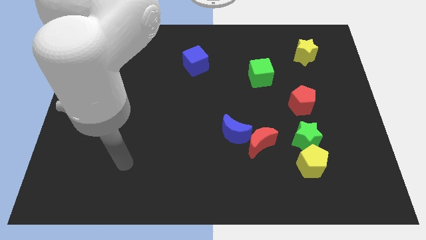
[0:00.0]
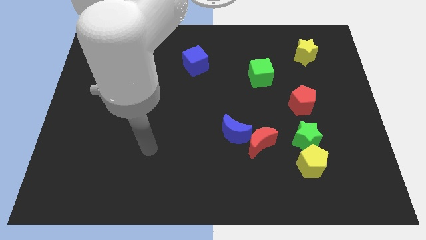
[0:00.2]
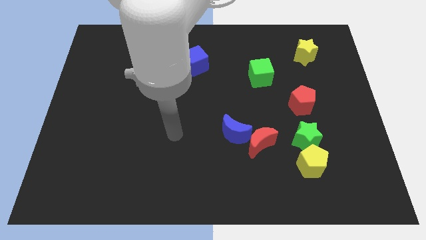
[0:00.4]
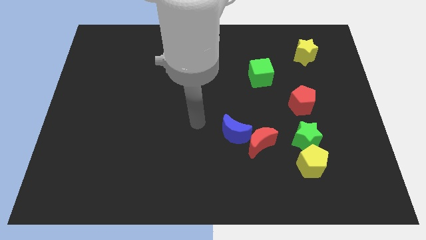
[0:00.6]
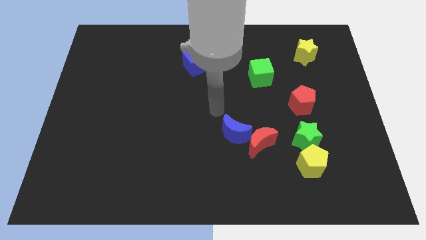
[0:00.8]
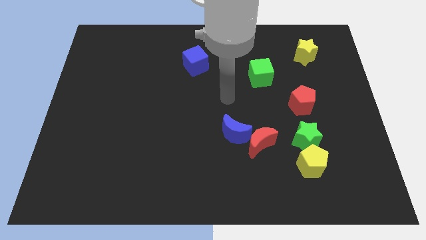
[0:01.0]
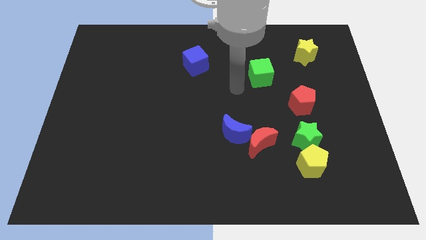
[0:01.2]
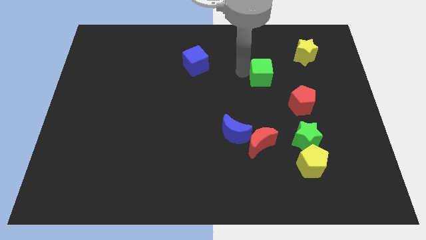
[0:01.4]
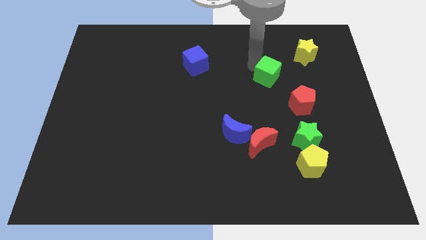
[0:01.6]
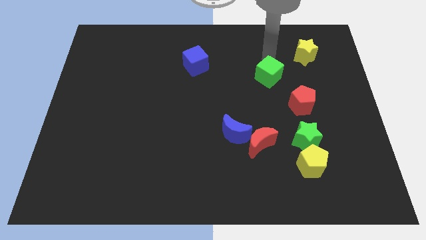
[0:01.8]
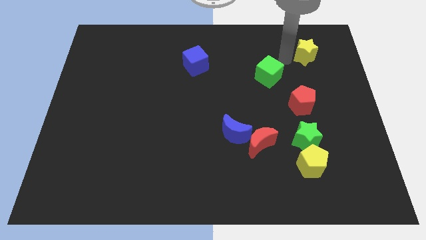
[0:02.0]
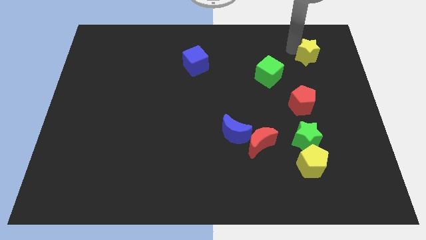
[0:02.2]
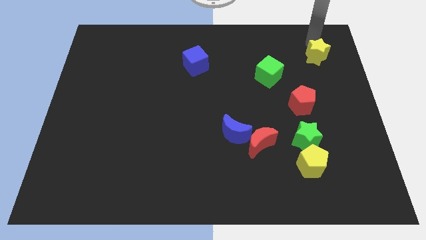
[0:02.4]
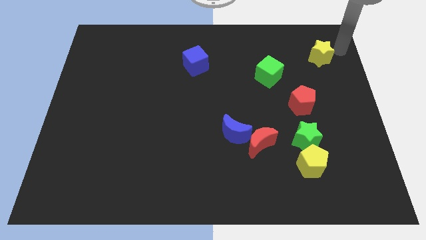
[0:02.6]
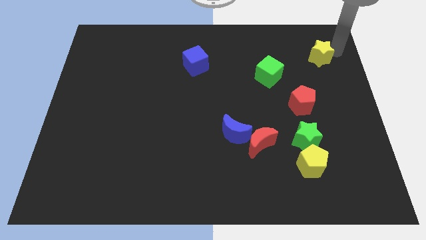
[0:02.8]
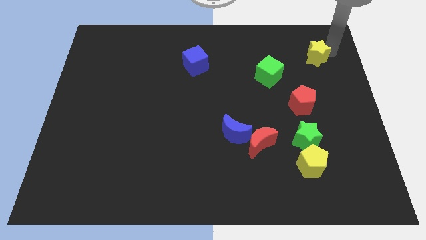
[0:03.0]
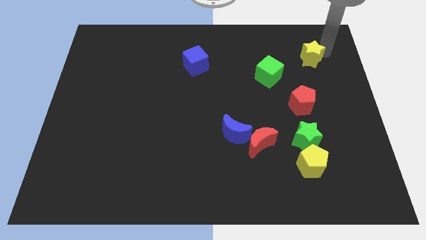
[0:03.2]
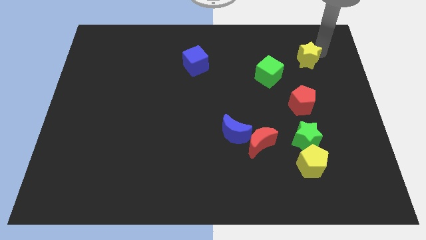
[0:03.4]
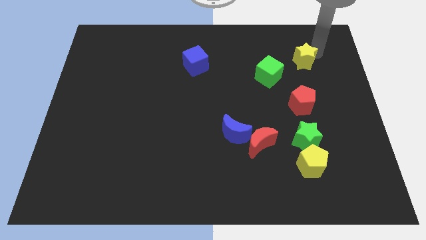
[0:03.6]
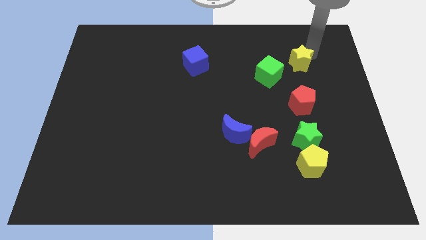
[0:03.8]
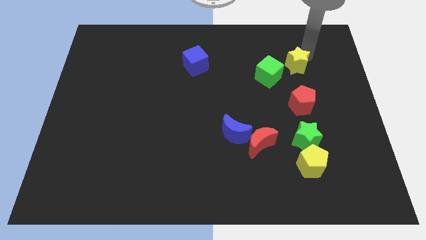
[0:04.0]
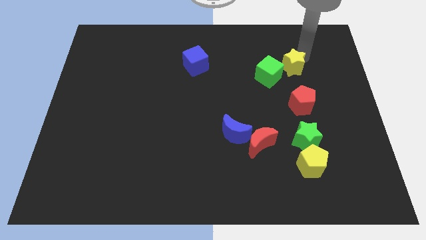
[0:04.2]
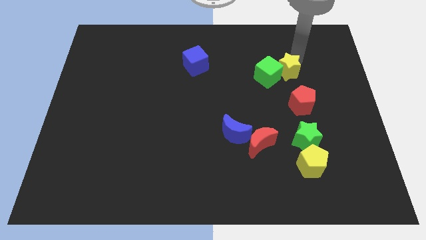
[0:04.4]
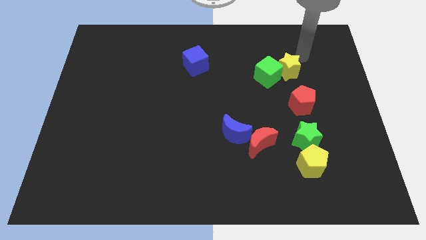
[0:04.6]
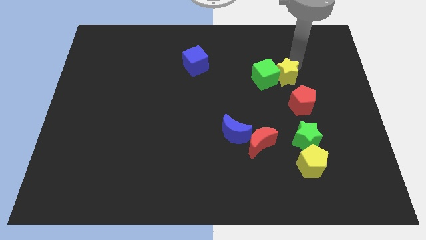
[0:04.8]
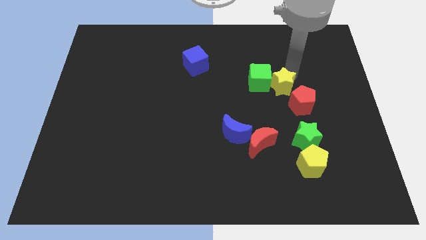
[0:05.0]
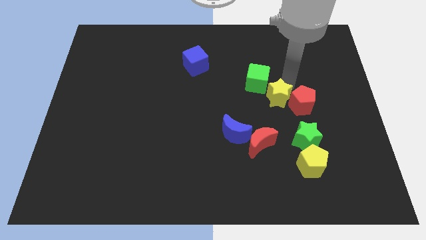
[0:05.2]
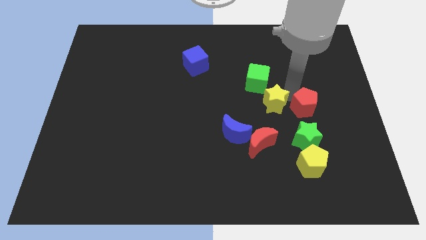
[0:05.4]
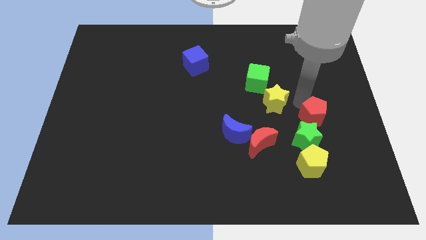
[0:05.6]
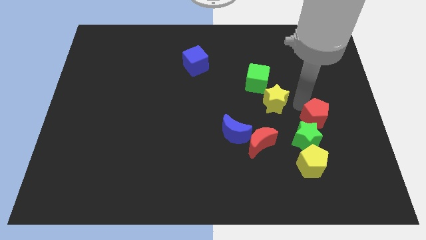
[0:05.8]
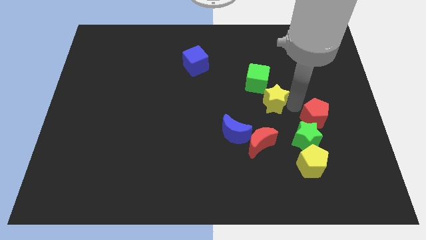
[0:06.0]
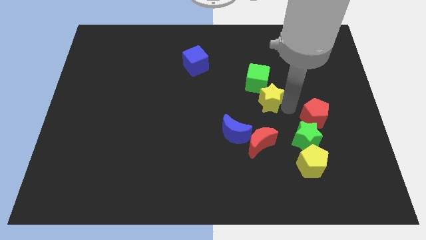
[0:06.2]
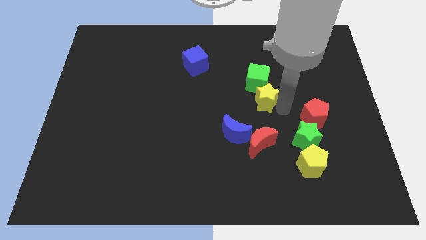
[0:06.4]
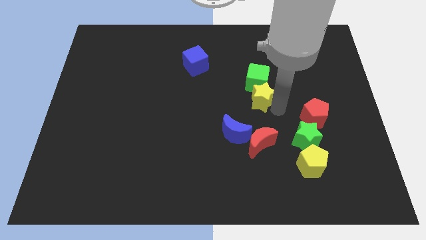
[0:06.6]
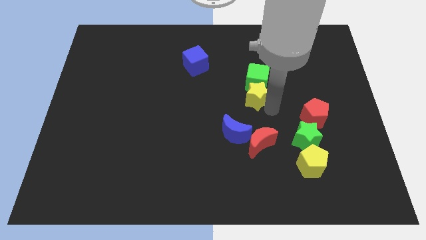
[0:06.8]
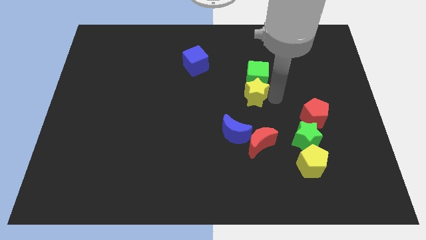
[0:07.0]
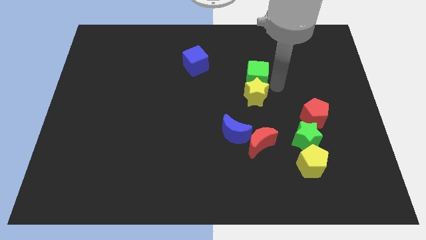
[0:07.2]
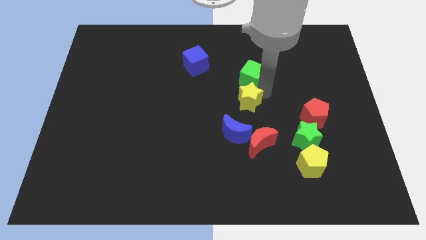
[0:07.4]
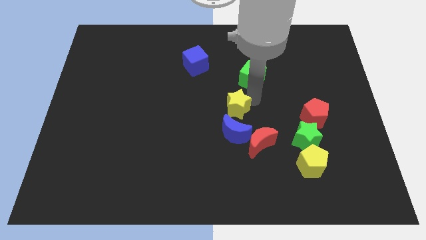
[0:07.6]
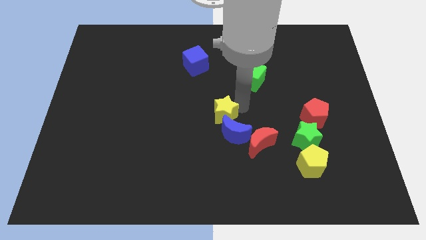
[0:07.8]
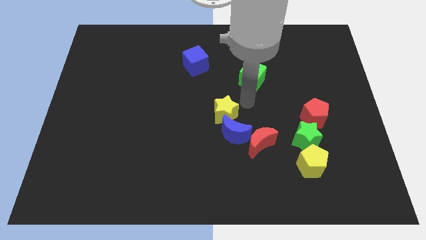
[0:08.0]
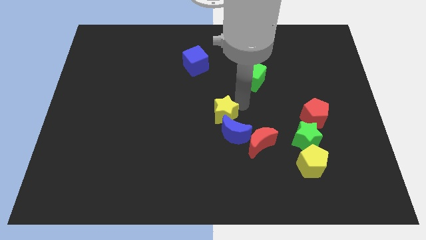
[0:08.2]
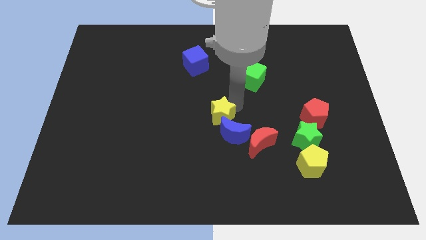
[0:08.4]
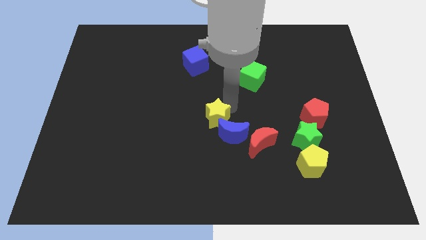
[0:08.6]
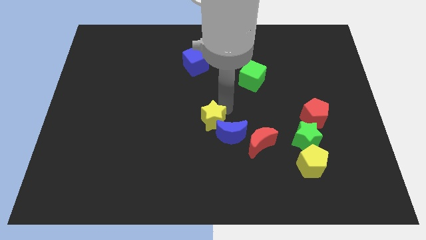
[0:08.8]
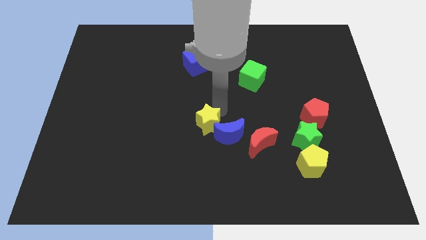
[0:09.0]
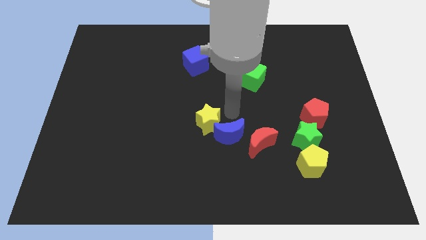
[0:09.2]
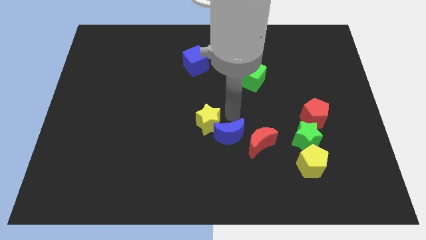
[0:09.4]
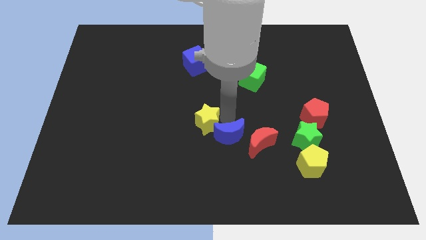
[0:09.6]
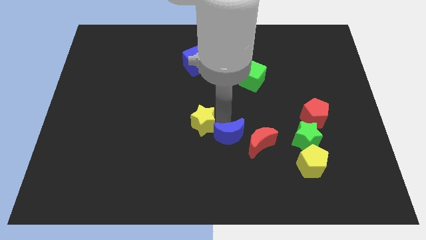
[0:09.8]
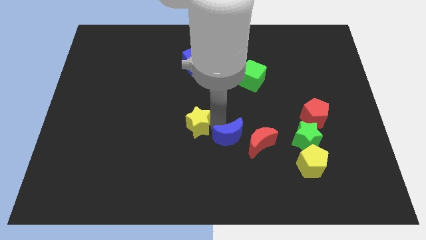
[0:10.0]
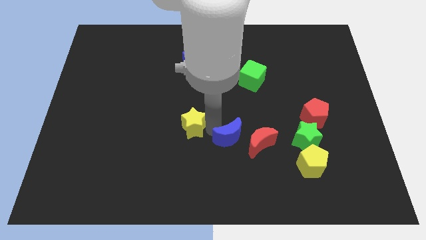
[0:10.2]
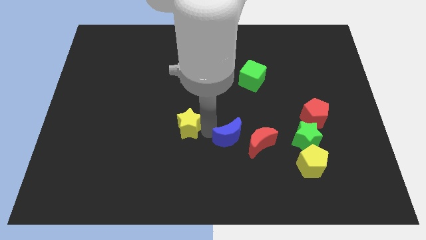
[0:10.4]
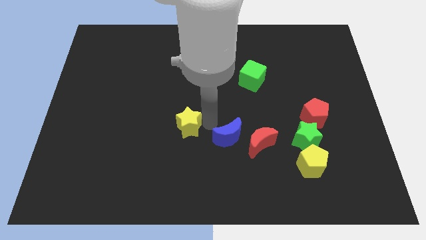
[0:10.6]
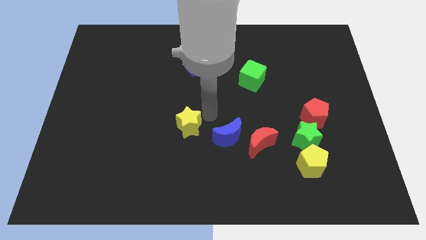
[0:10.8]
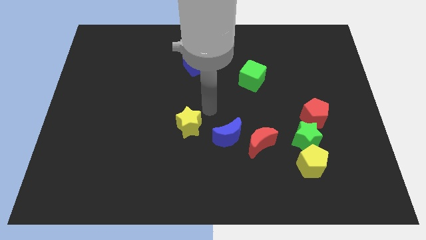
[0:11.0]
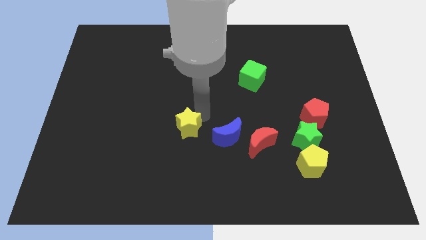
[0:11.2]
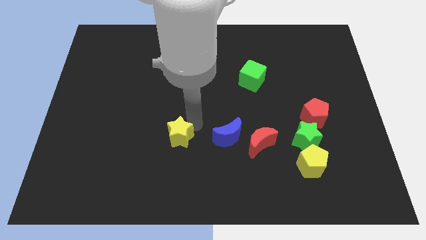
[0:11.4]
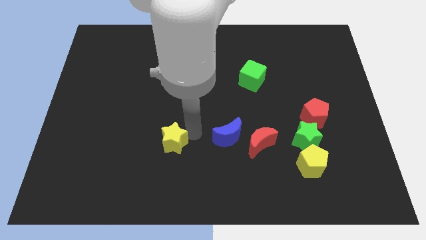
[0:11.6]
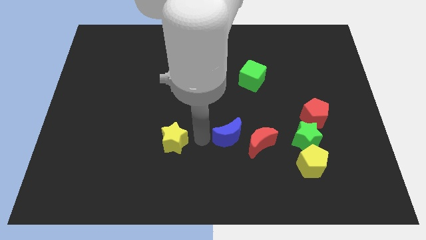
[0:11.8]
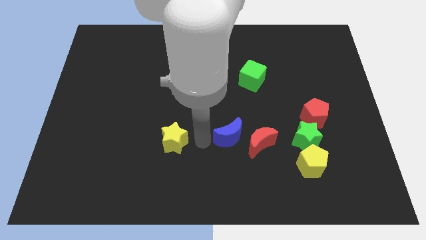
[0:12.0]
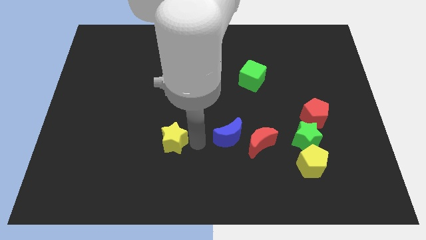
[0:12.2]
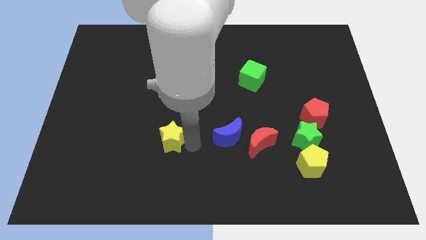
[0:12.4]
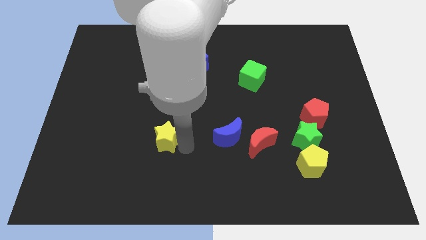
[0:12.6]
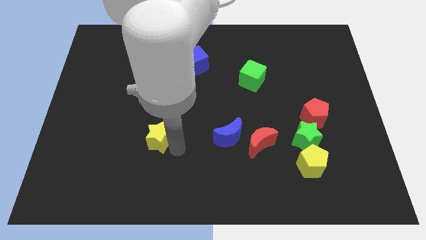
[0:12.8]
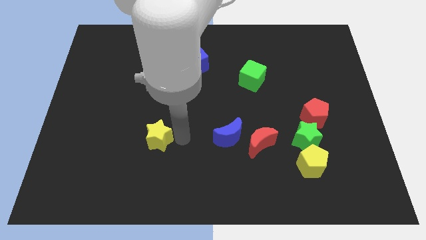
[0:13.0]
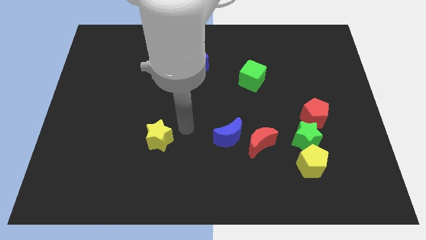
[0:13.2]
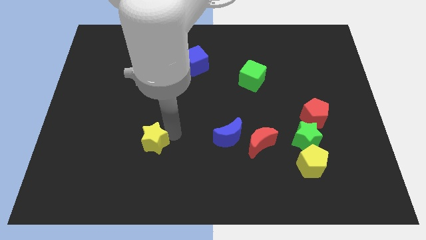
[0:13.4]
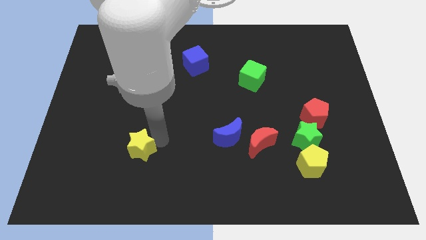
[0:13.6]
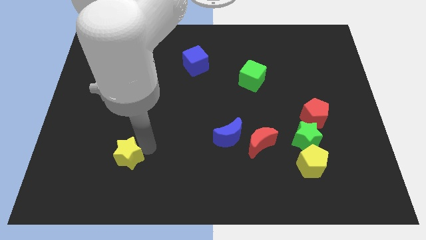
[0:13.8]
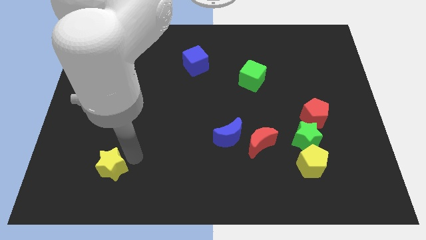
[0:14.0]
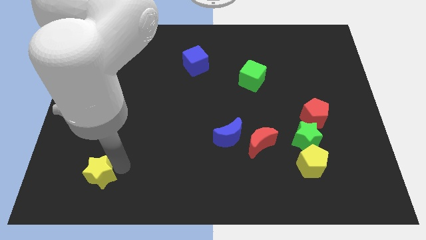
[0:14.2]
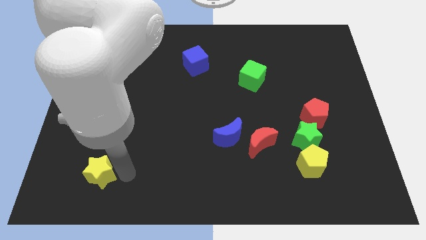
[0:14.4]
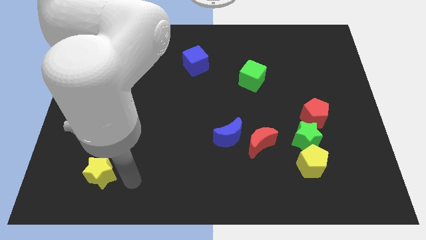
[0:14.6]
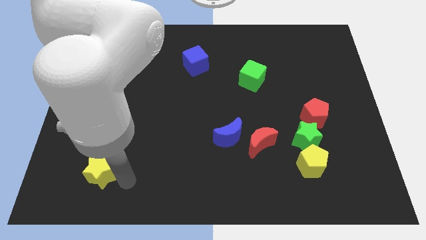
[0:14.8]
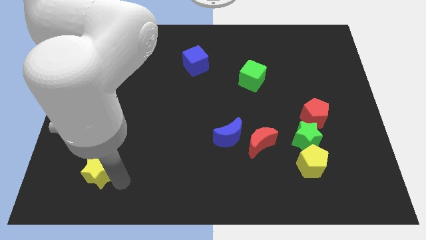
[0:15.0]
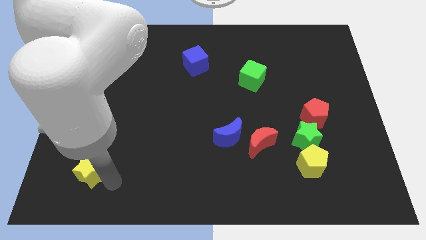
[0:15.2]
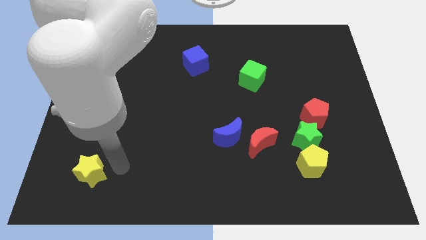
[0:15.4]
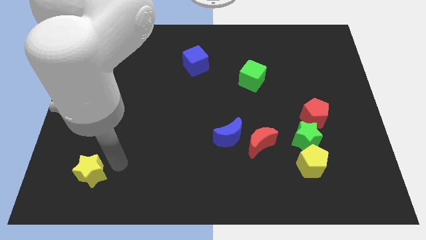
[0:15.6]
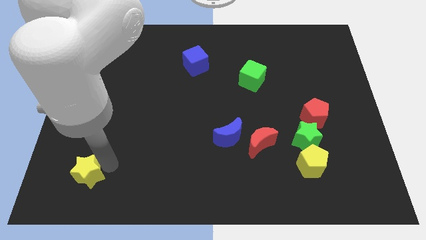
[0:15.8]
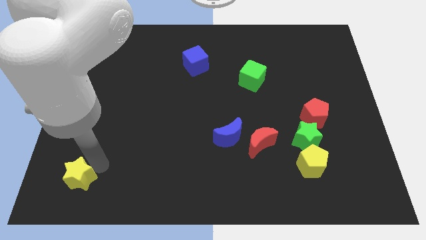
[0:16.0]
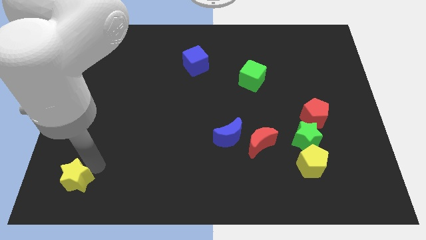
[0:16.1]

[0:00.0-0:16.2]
push the yellow star to the lower left corner
